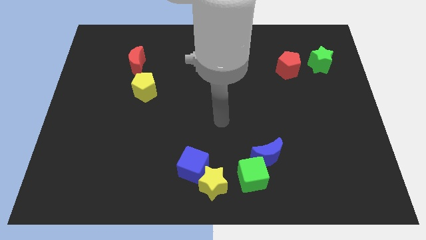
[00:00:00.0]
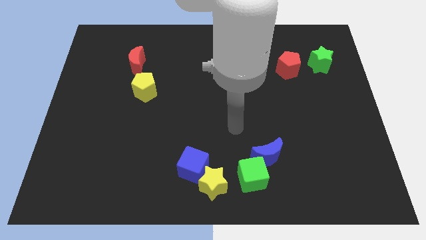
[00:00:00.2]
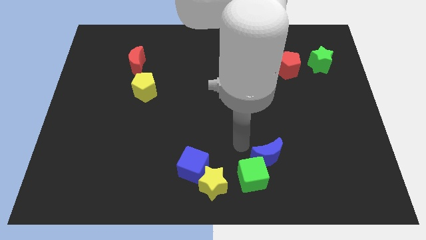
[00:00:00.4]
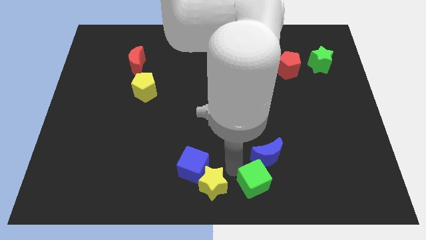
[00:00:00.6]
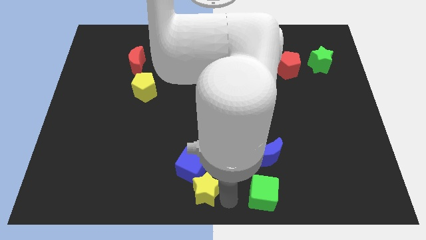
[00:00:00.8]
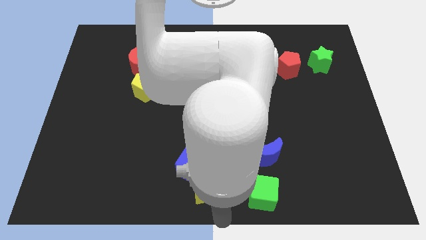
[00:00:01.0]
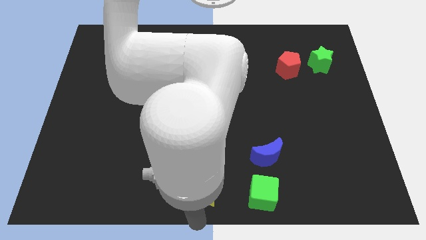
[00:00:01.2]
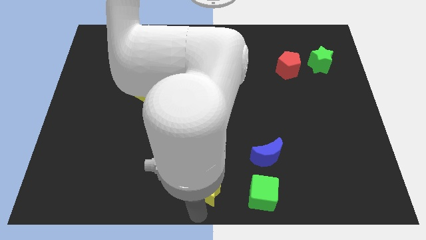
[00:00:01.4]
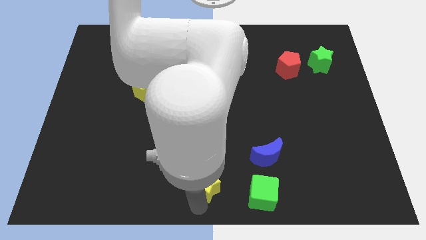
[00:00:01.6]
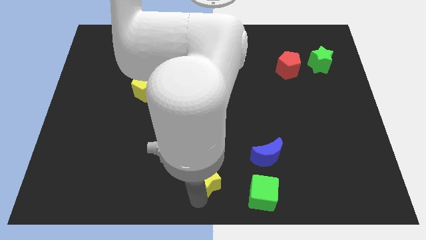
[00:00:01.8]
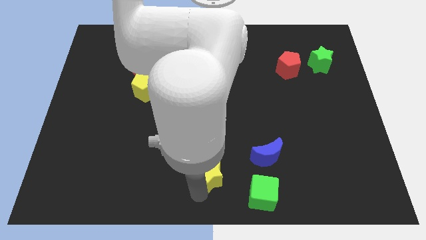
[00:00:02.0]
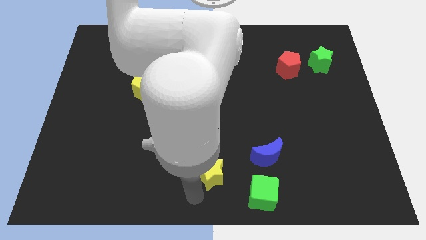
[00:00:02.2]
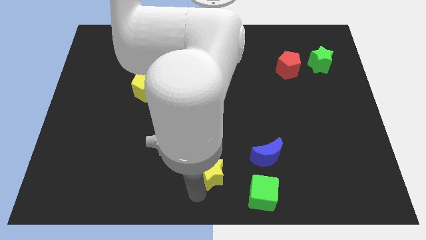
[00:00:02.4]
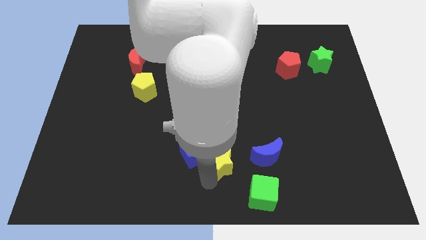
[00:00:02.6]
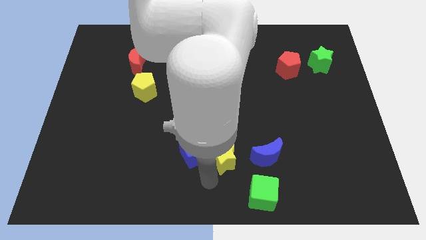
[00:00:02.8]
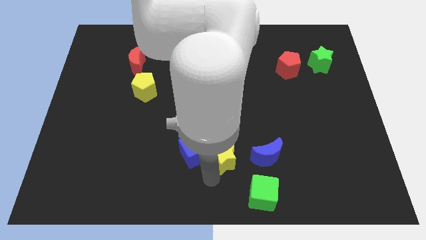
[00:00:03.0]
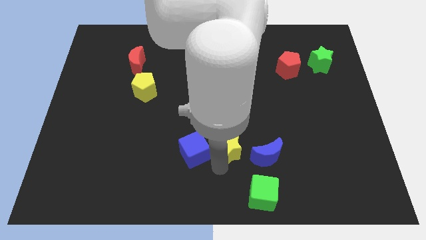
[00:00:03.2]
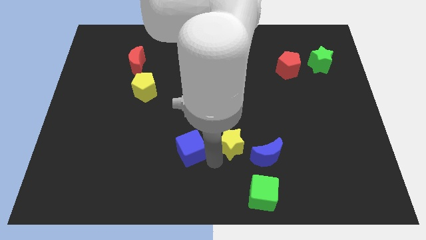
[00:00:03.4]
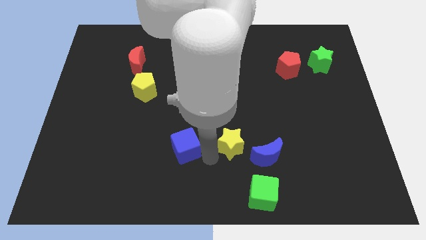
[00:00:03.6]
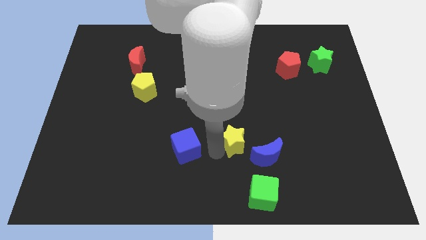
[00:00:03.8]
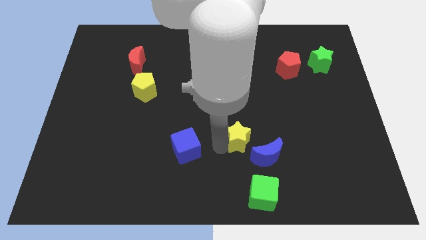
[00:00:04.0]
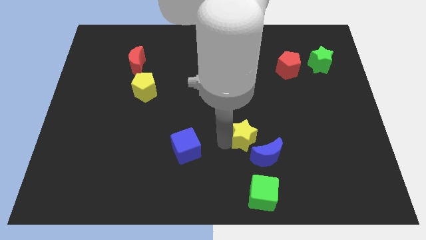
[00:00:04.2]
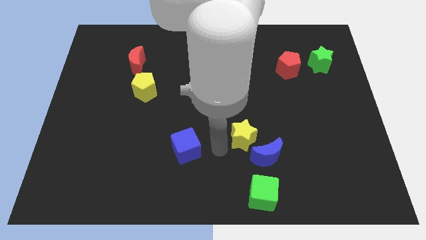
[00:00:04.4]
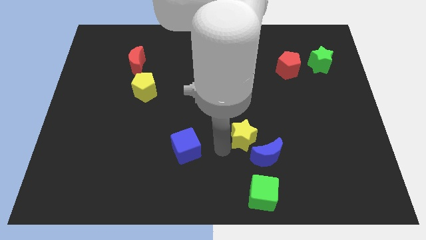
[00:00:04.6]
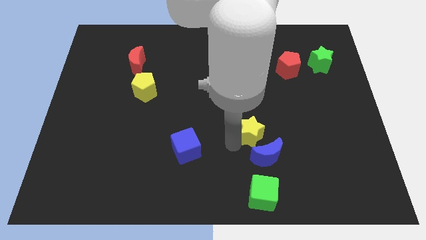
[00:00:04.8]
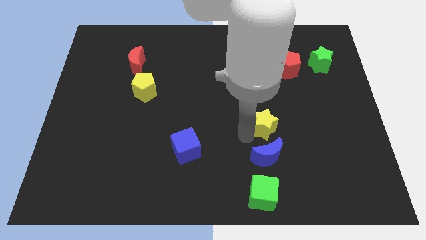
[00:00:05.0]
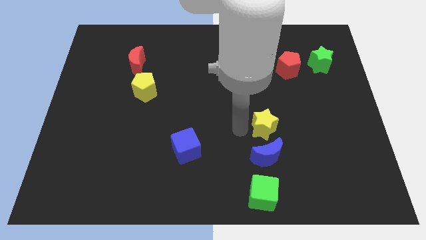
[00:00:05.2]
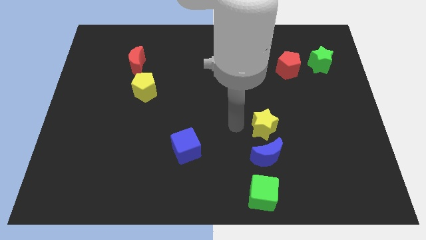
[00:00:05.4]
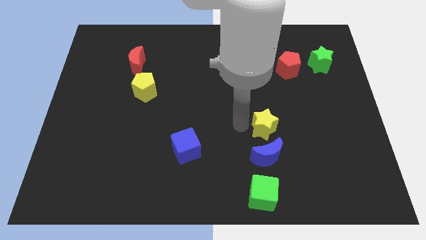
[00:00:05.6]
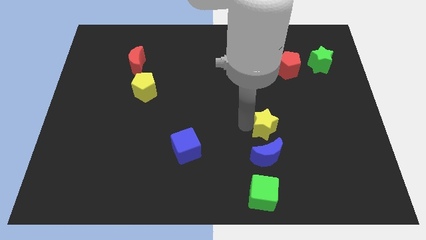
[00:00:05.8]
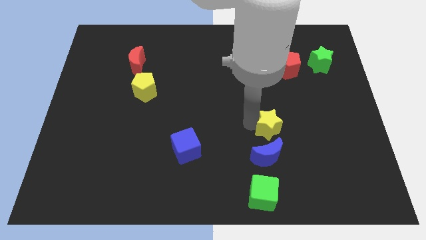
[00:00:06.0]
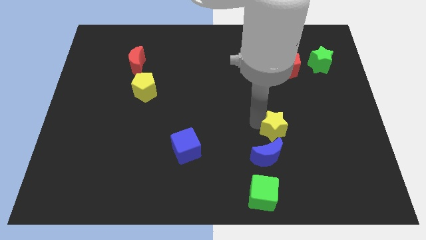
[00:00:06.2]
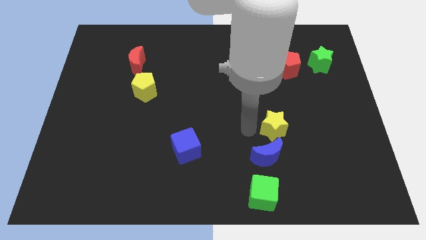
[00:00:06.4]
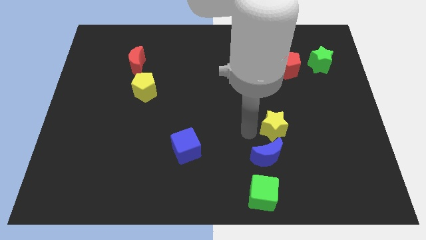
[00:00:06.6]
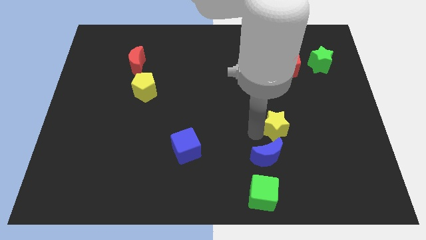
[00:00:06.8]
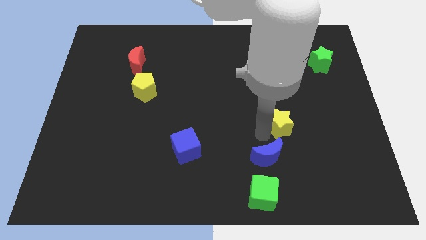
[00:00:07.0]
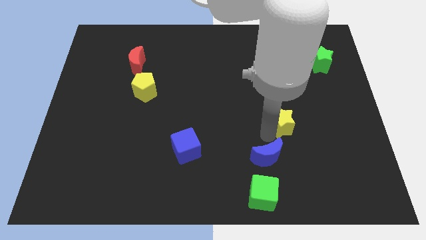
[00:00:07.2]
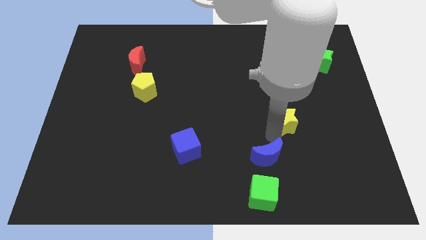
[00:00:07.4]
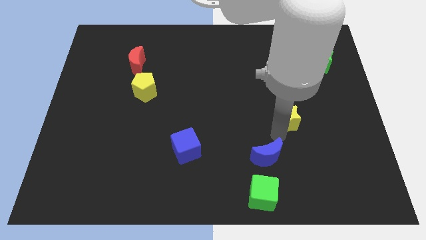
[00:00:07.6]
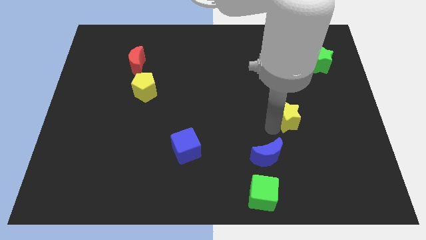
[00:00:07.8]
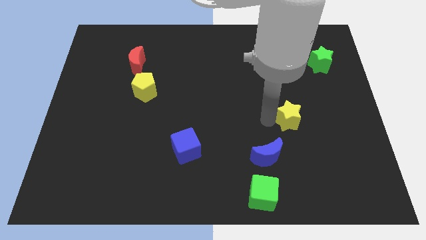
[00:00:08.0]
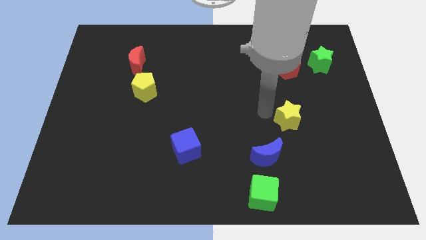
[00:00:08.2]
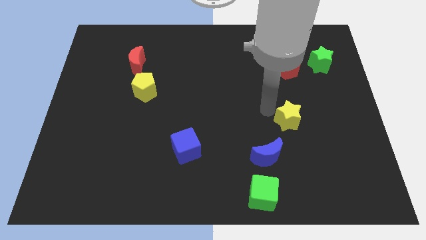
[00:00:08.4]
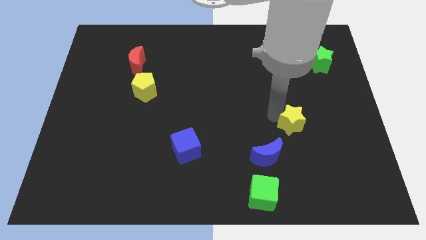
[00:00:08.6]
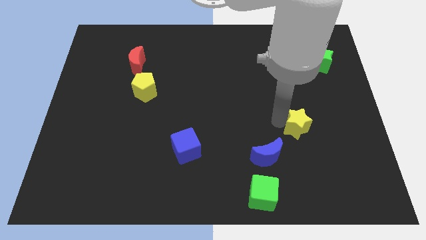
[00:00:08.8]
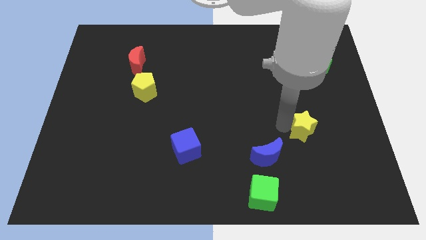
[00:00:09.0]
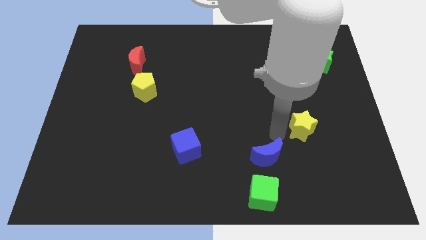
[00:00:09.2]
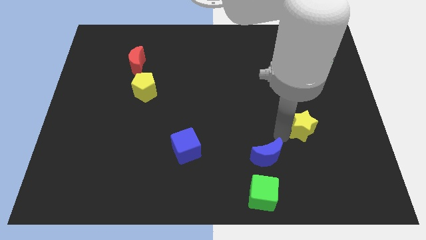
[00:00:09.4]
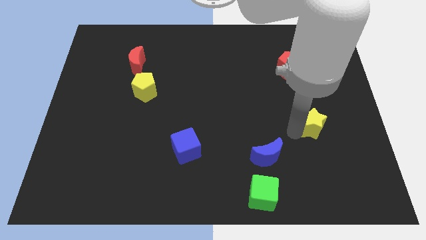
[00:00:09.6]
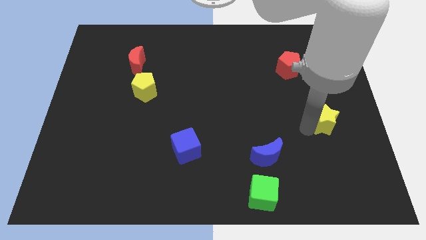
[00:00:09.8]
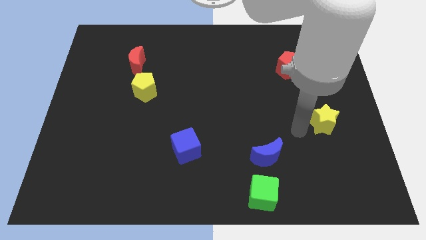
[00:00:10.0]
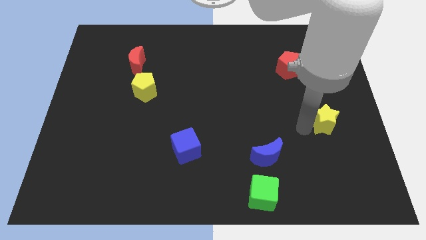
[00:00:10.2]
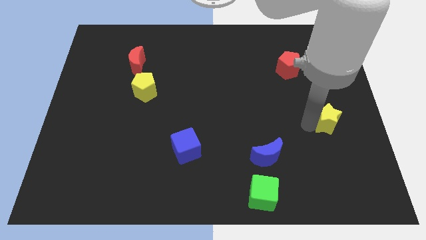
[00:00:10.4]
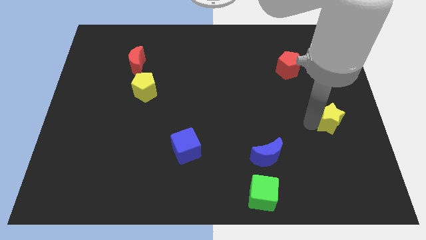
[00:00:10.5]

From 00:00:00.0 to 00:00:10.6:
move the yellow star to the center right
